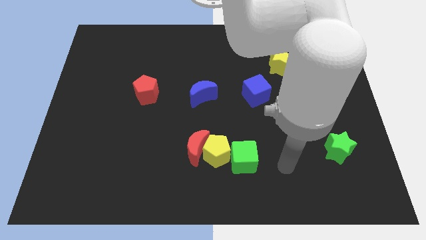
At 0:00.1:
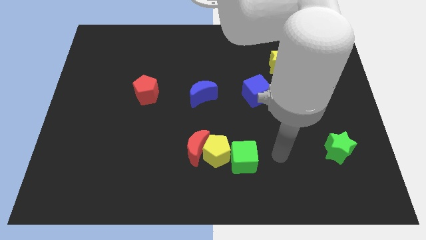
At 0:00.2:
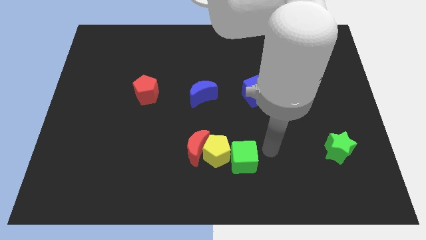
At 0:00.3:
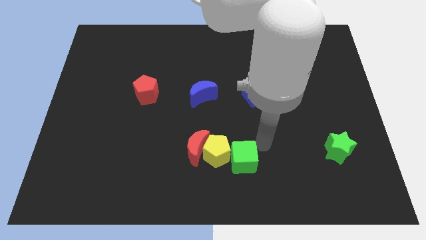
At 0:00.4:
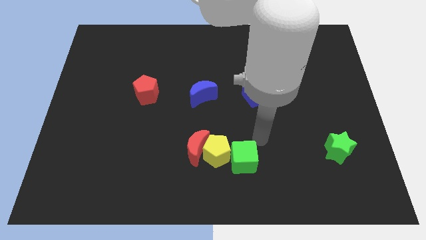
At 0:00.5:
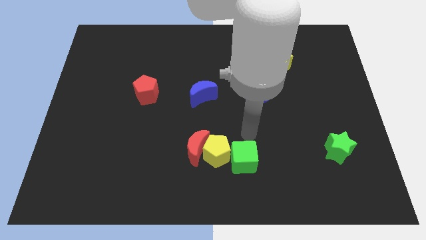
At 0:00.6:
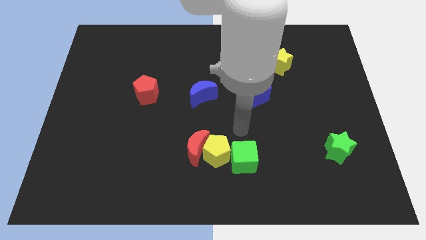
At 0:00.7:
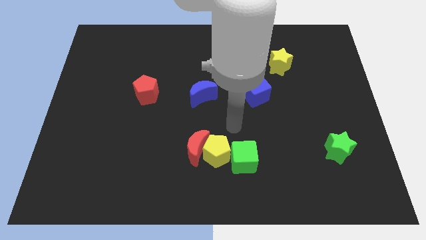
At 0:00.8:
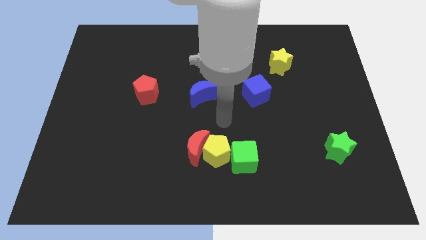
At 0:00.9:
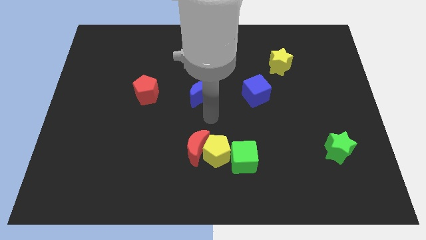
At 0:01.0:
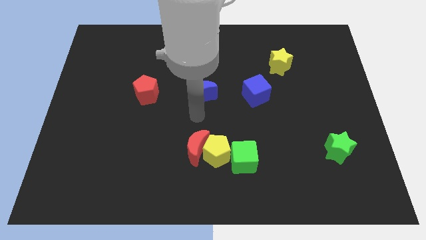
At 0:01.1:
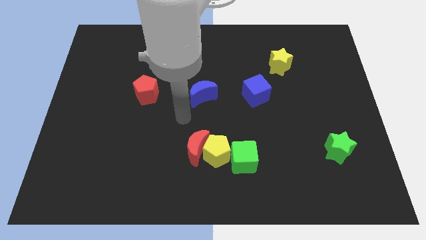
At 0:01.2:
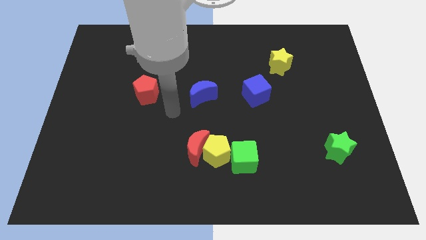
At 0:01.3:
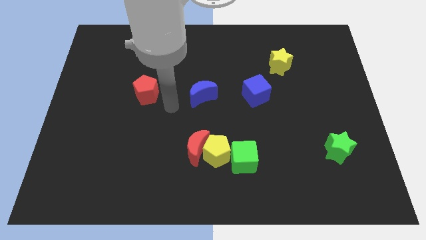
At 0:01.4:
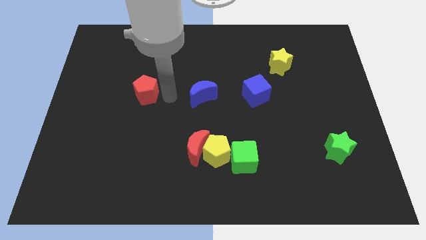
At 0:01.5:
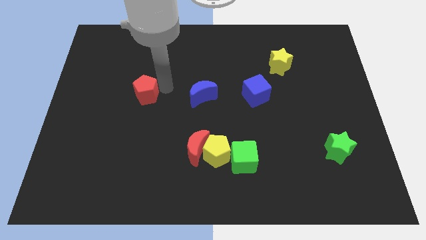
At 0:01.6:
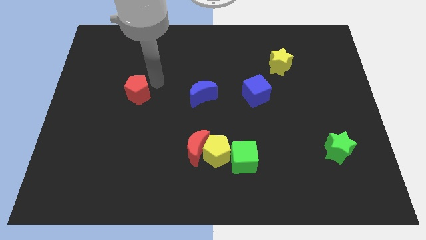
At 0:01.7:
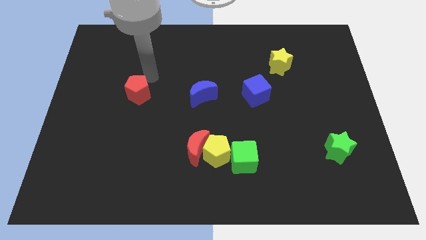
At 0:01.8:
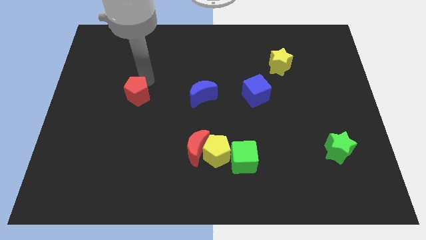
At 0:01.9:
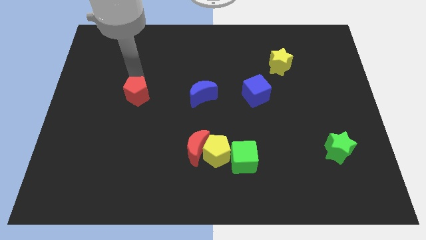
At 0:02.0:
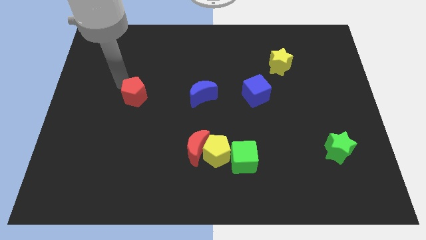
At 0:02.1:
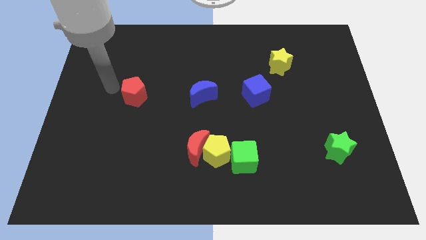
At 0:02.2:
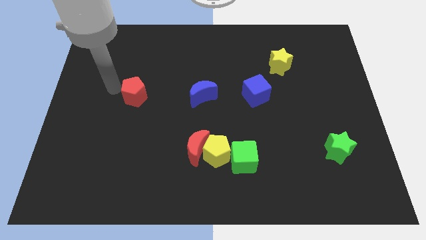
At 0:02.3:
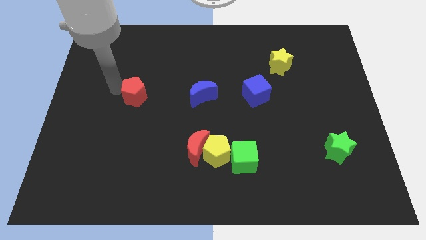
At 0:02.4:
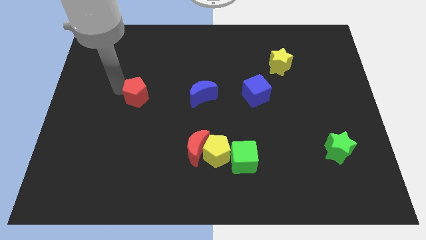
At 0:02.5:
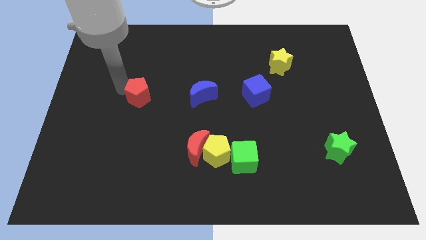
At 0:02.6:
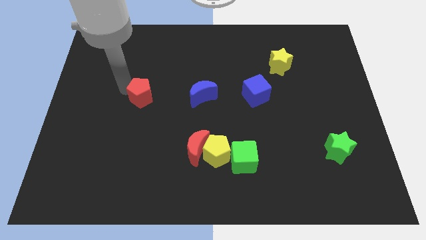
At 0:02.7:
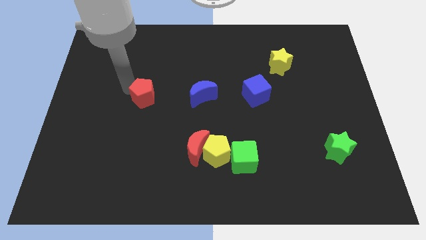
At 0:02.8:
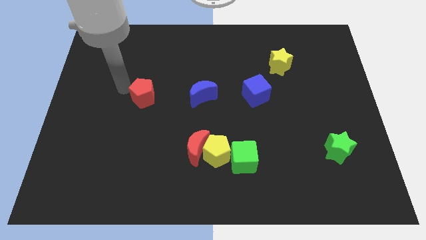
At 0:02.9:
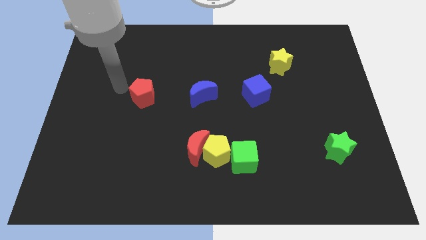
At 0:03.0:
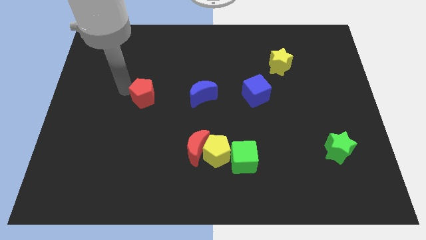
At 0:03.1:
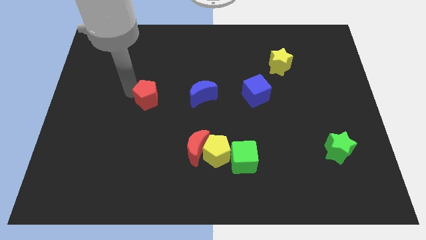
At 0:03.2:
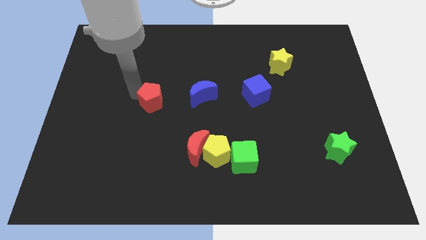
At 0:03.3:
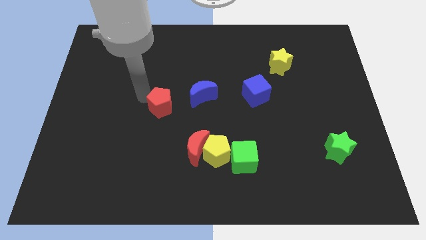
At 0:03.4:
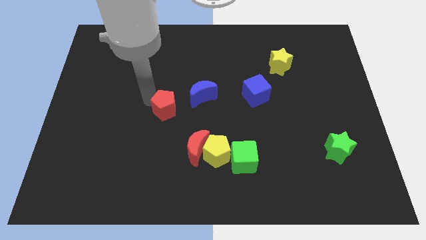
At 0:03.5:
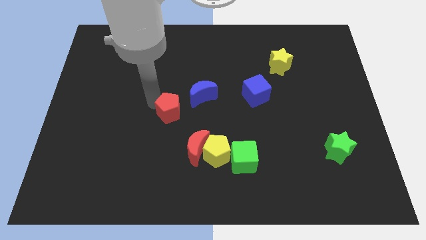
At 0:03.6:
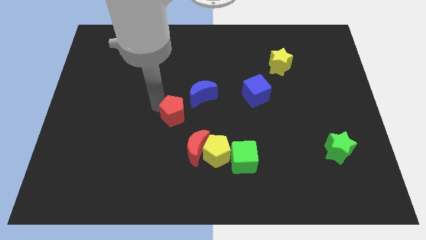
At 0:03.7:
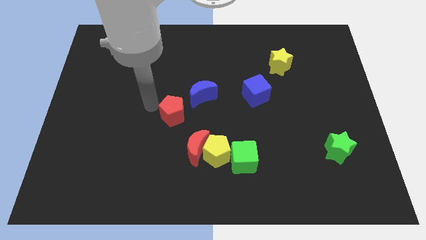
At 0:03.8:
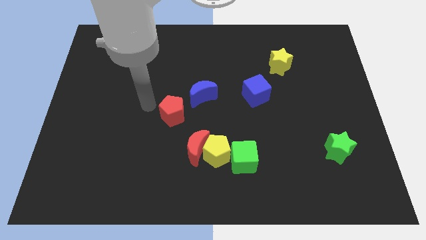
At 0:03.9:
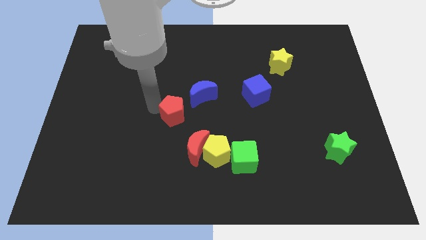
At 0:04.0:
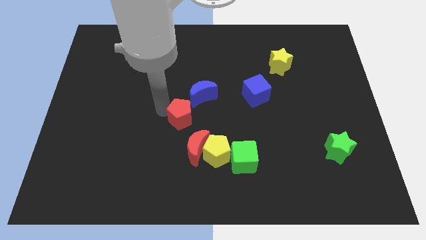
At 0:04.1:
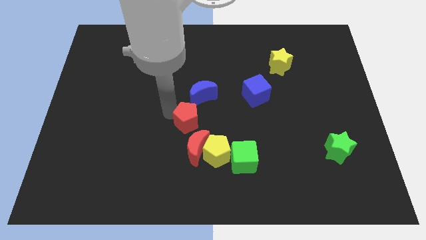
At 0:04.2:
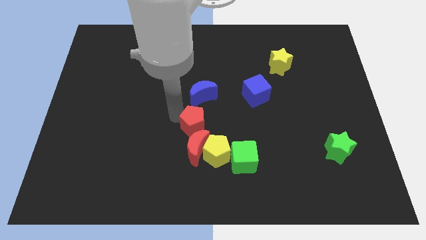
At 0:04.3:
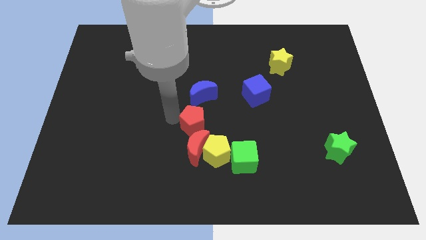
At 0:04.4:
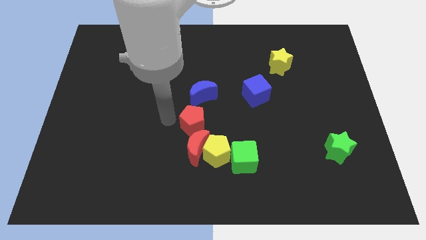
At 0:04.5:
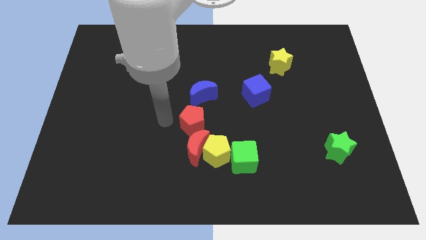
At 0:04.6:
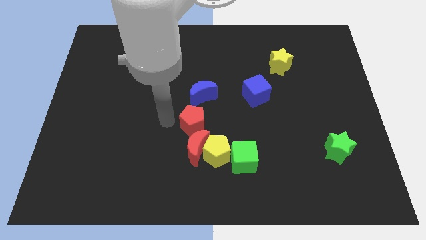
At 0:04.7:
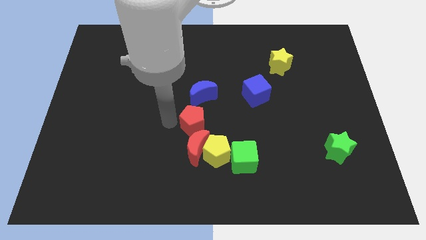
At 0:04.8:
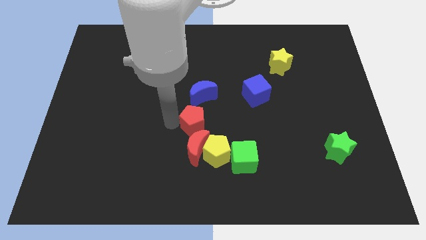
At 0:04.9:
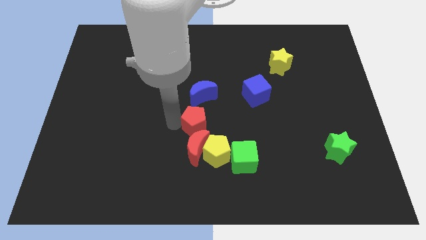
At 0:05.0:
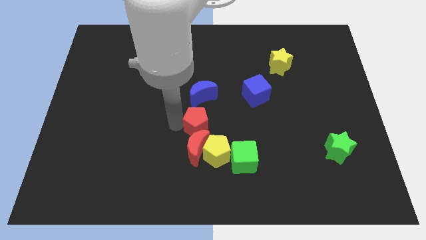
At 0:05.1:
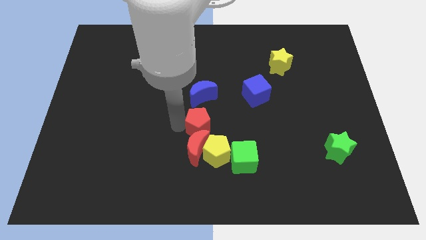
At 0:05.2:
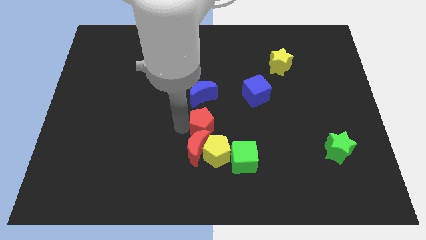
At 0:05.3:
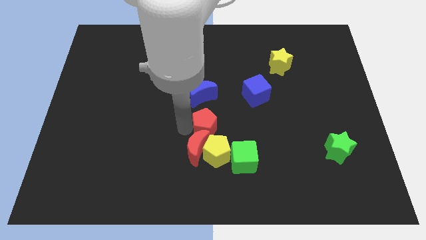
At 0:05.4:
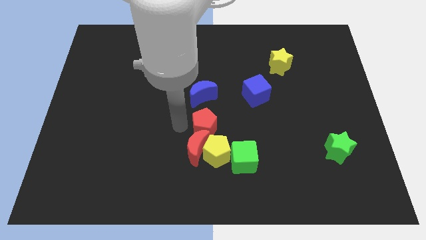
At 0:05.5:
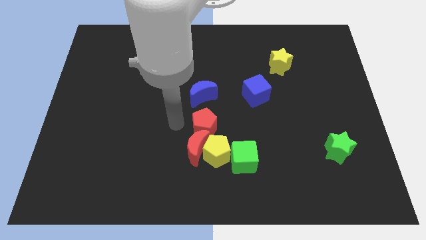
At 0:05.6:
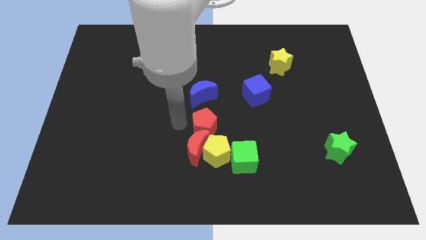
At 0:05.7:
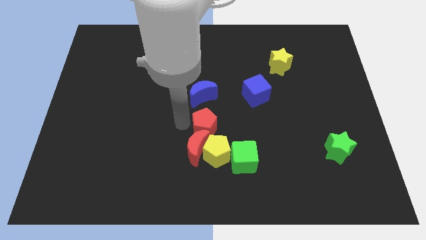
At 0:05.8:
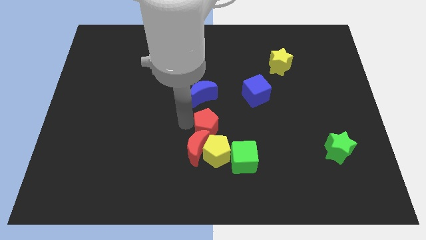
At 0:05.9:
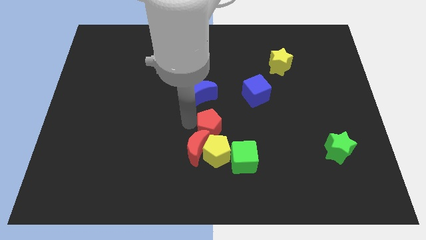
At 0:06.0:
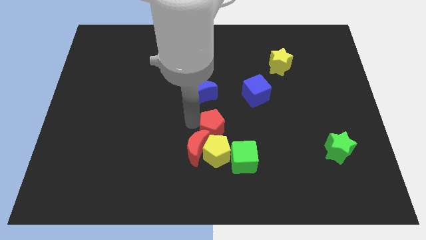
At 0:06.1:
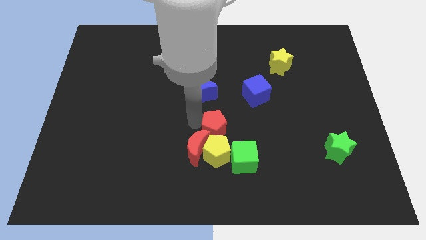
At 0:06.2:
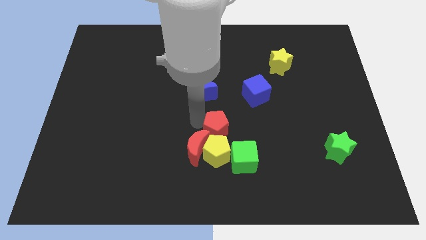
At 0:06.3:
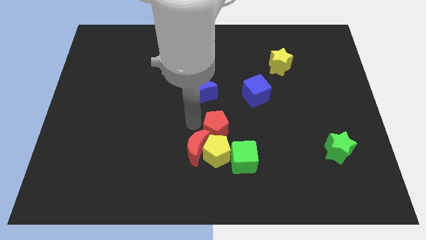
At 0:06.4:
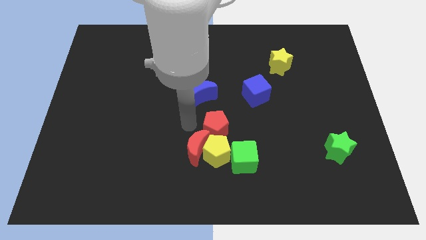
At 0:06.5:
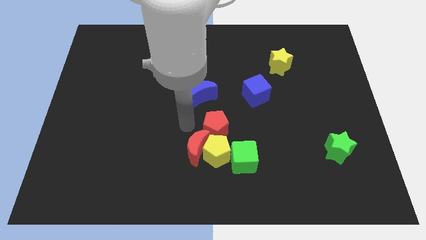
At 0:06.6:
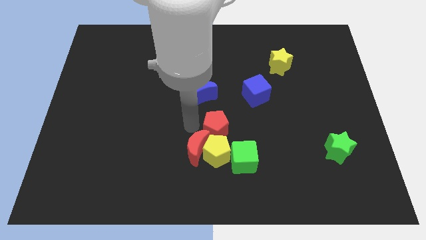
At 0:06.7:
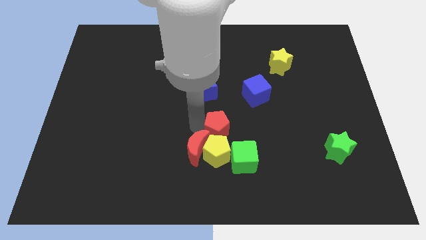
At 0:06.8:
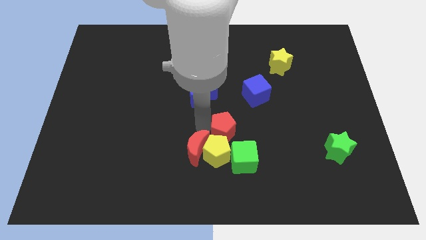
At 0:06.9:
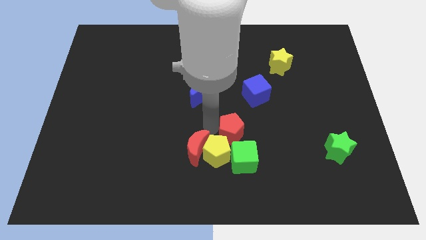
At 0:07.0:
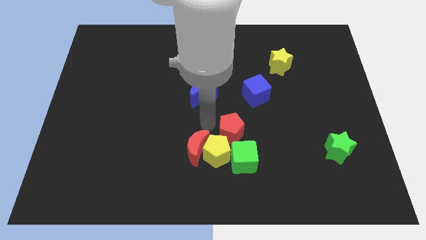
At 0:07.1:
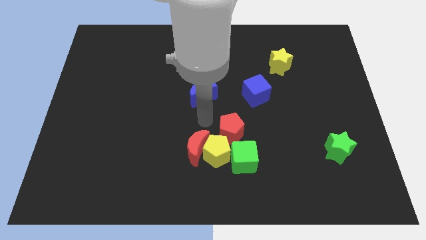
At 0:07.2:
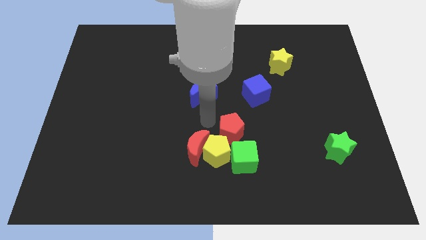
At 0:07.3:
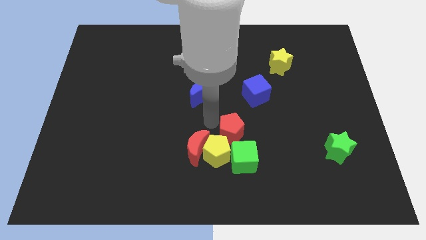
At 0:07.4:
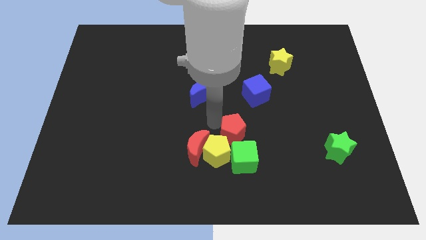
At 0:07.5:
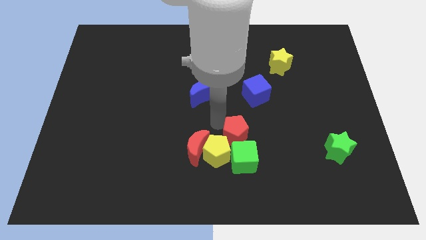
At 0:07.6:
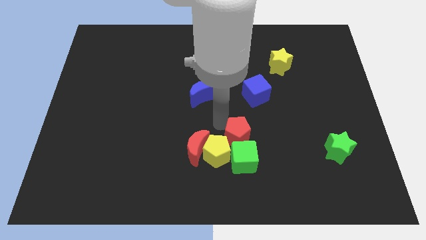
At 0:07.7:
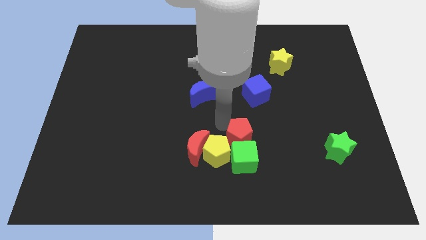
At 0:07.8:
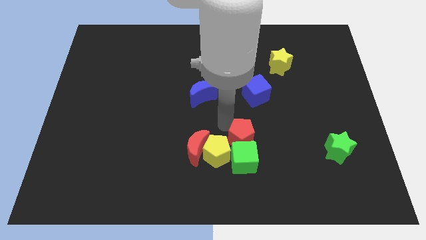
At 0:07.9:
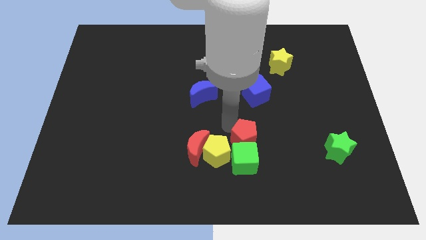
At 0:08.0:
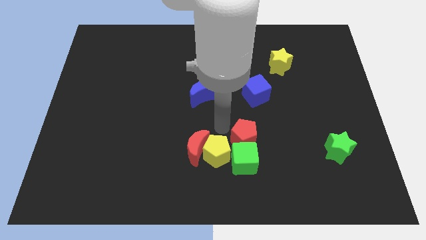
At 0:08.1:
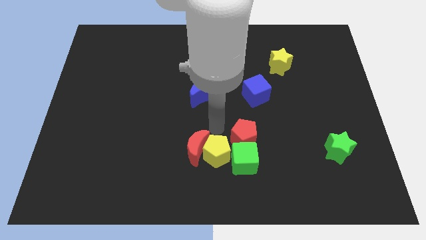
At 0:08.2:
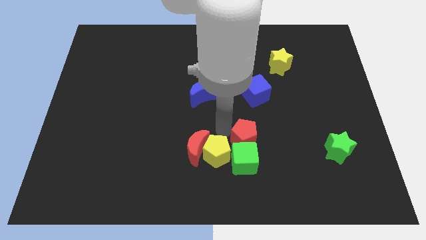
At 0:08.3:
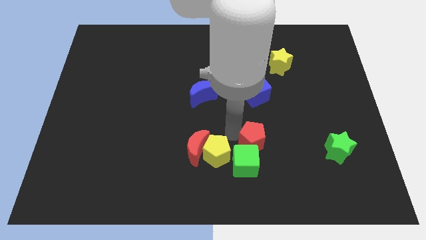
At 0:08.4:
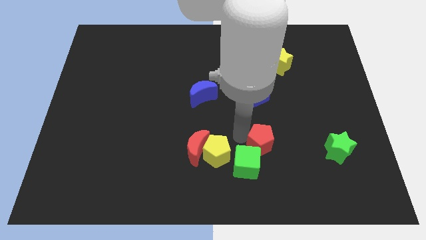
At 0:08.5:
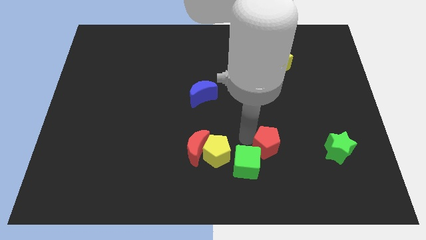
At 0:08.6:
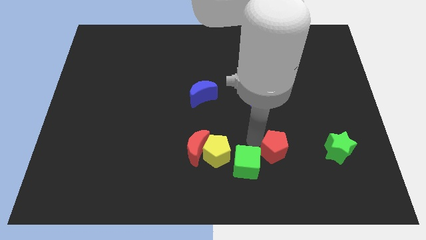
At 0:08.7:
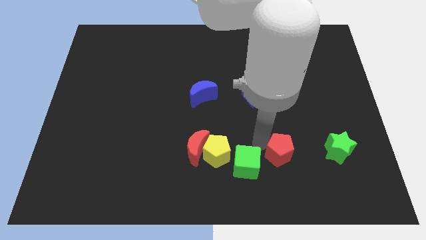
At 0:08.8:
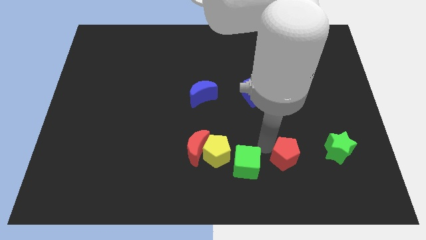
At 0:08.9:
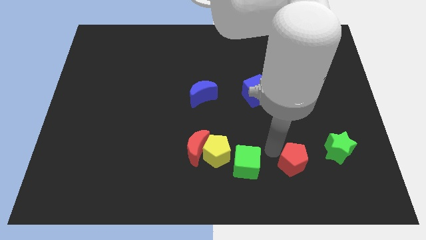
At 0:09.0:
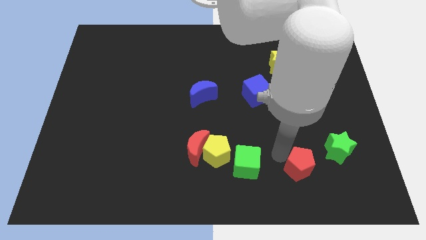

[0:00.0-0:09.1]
put the red pentagon to the bottom left side of the green star
